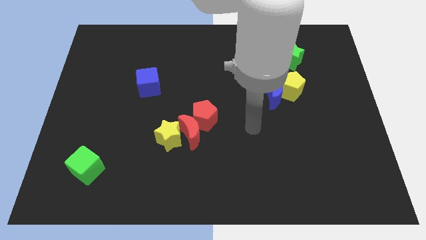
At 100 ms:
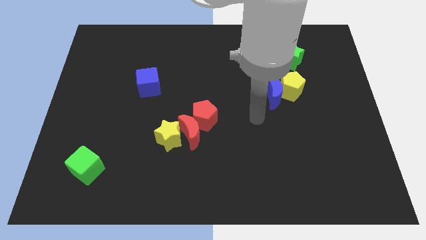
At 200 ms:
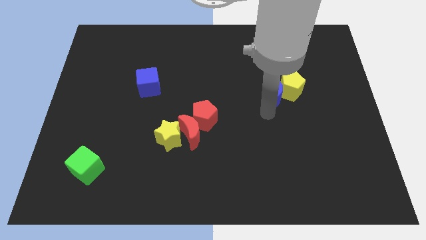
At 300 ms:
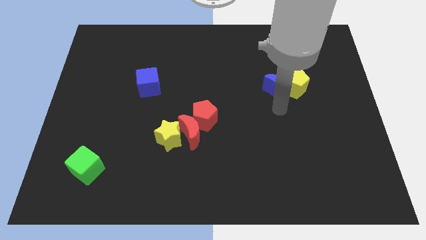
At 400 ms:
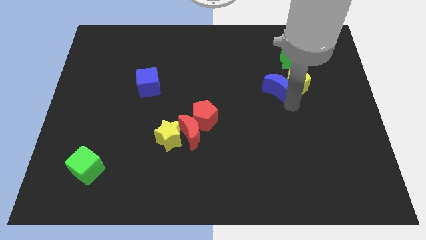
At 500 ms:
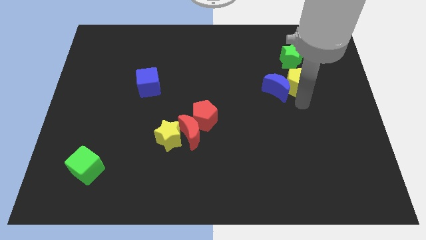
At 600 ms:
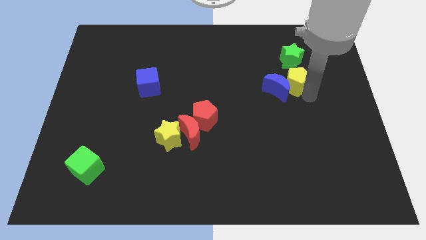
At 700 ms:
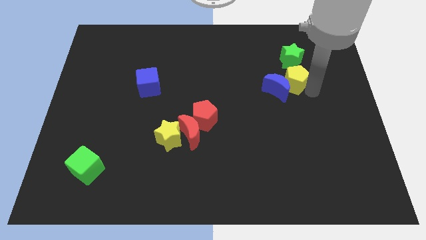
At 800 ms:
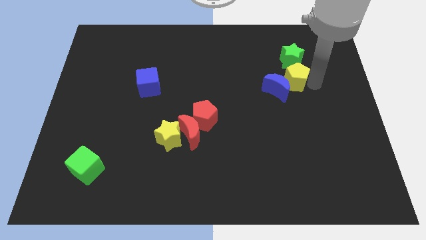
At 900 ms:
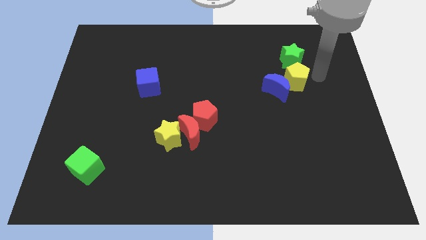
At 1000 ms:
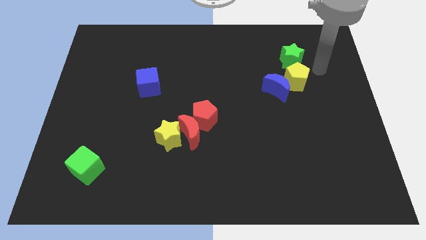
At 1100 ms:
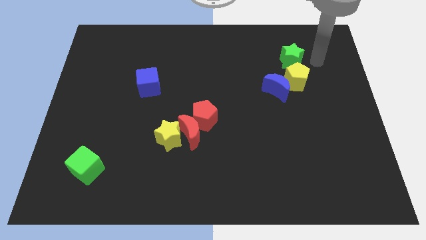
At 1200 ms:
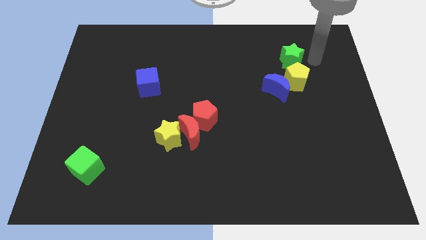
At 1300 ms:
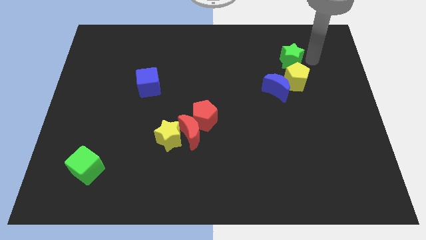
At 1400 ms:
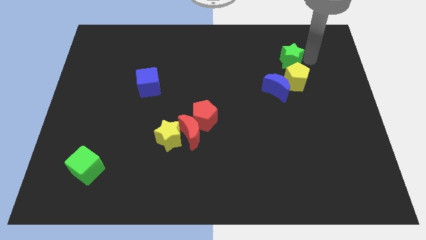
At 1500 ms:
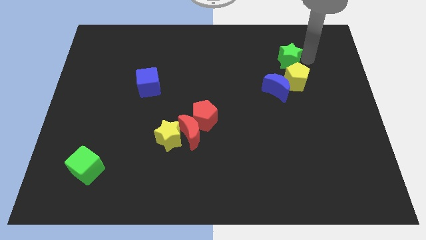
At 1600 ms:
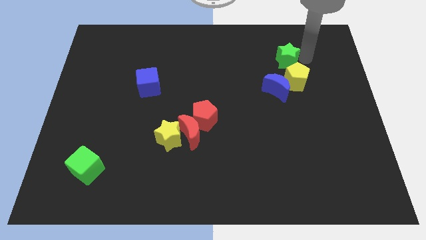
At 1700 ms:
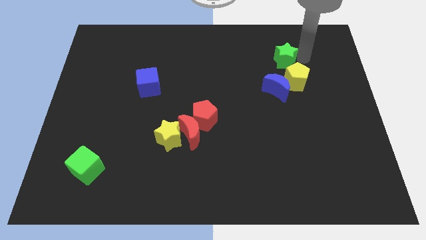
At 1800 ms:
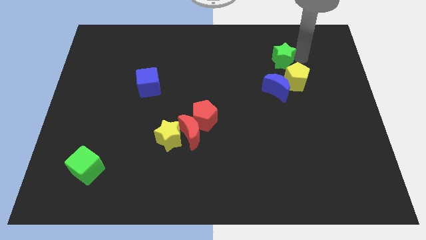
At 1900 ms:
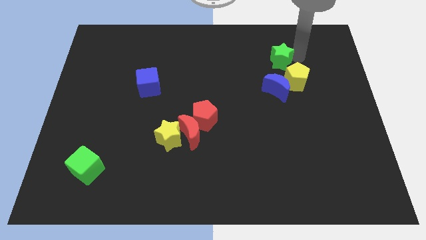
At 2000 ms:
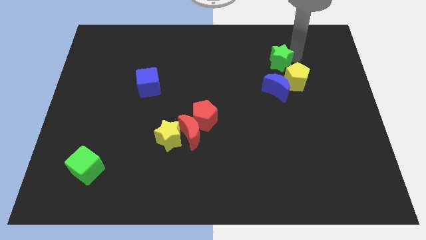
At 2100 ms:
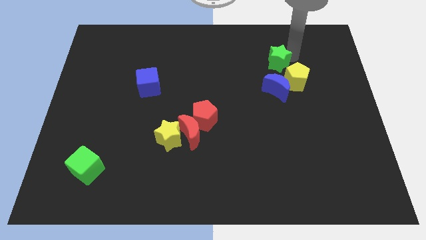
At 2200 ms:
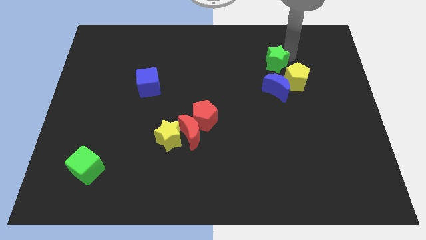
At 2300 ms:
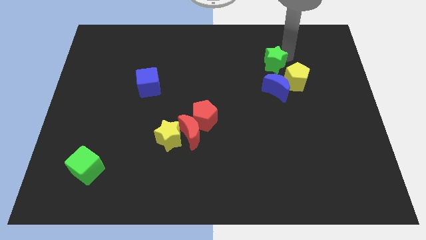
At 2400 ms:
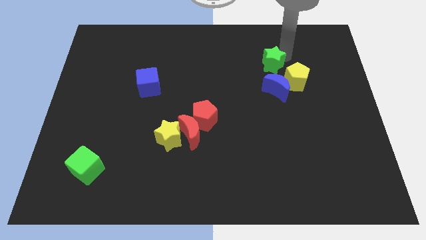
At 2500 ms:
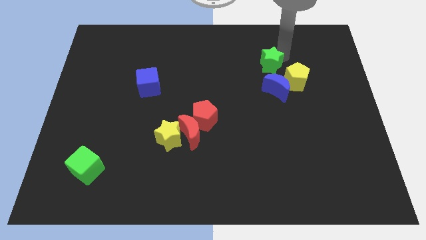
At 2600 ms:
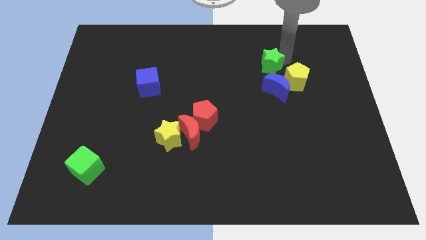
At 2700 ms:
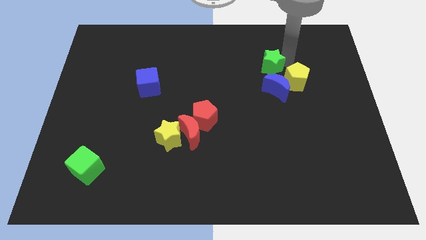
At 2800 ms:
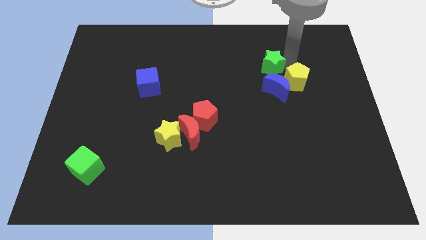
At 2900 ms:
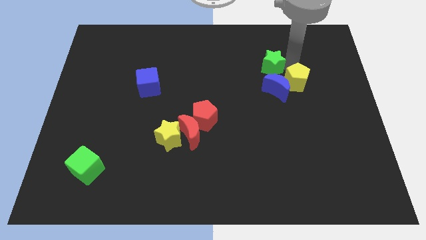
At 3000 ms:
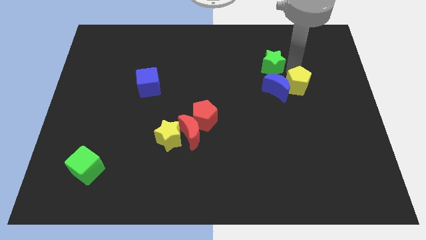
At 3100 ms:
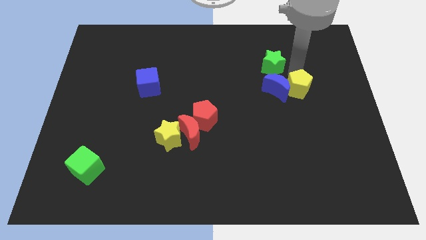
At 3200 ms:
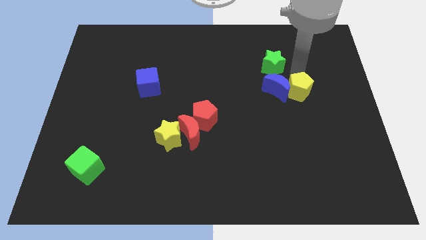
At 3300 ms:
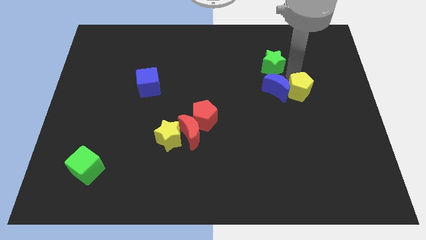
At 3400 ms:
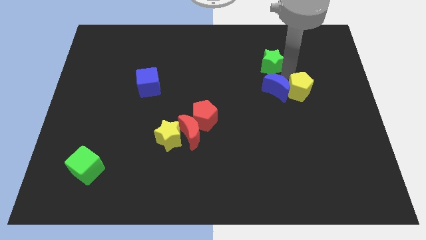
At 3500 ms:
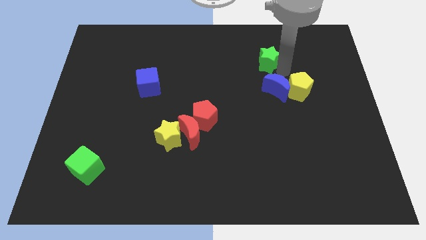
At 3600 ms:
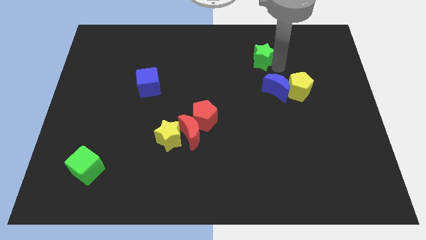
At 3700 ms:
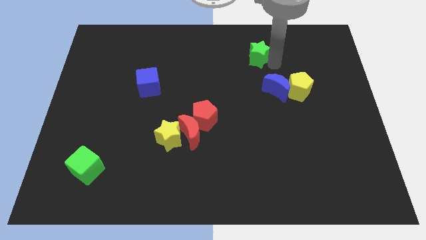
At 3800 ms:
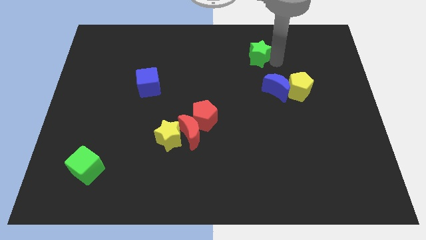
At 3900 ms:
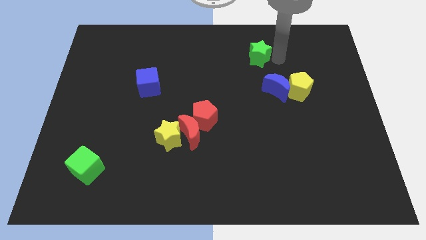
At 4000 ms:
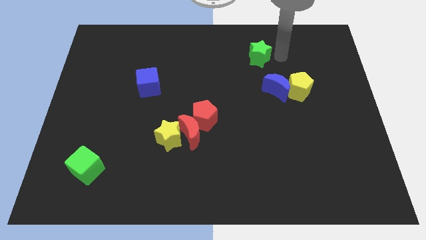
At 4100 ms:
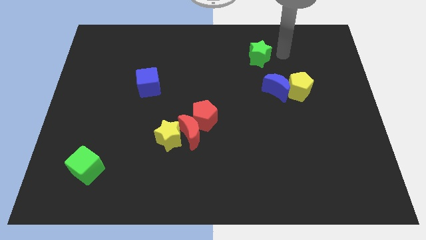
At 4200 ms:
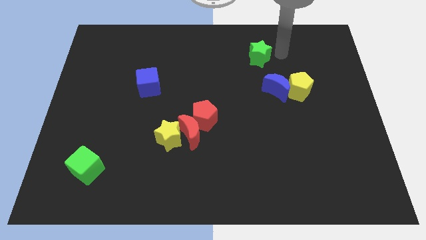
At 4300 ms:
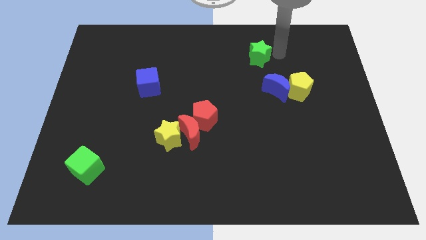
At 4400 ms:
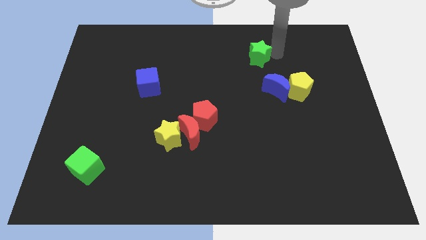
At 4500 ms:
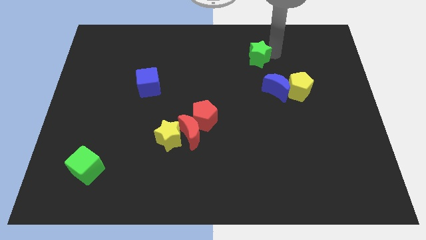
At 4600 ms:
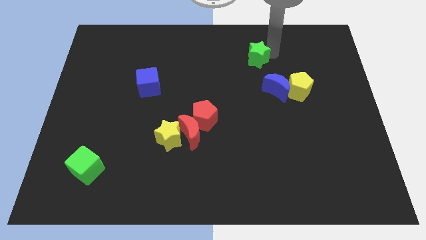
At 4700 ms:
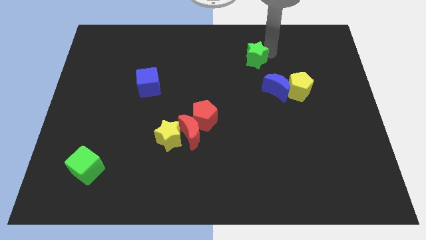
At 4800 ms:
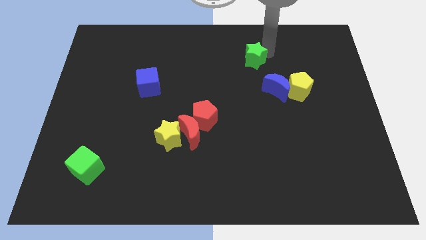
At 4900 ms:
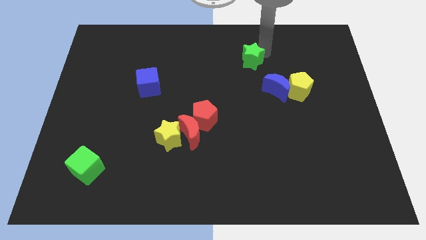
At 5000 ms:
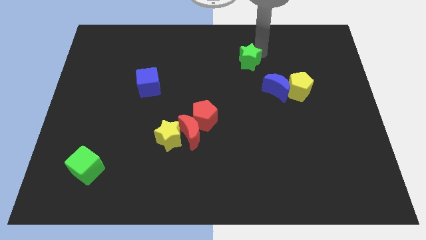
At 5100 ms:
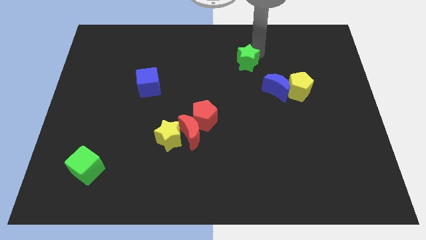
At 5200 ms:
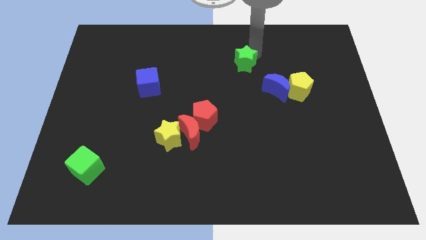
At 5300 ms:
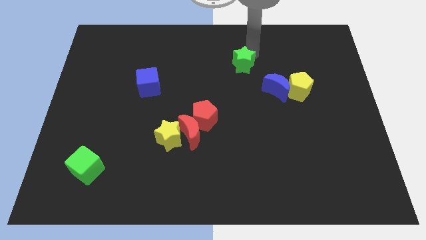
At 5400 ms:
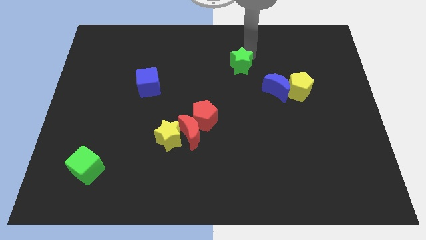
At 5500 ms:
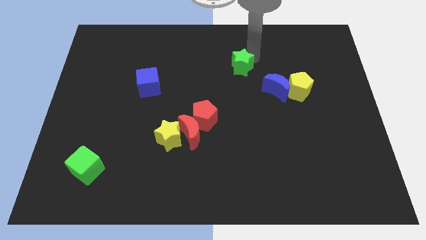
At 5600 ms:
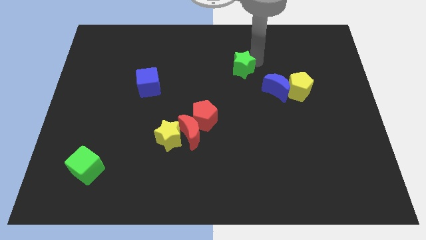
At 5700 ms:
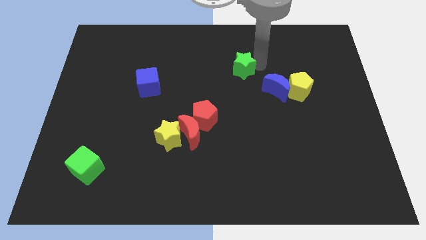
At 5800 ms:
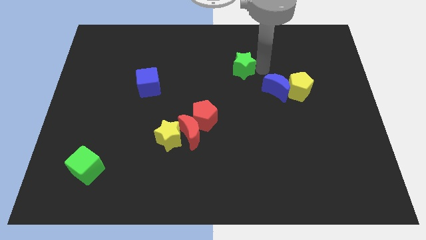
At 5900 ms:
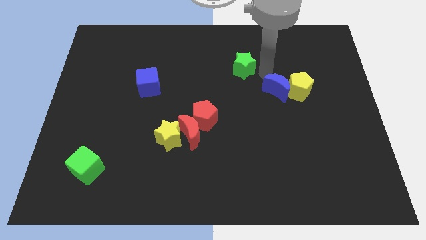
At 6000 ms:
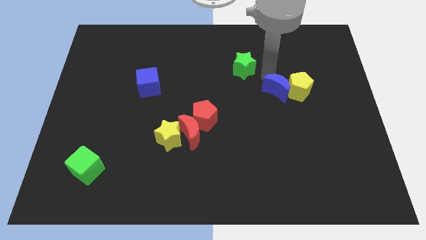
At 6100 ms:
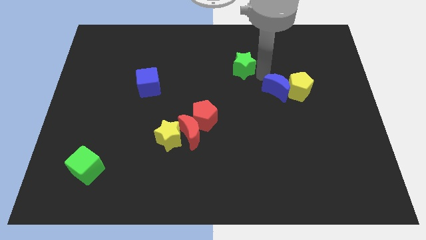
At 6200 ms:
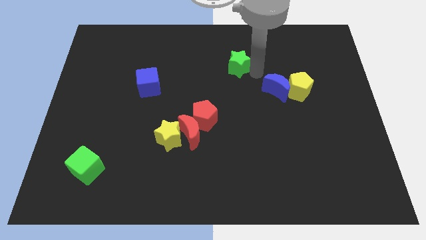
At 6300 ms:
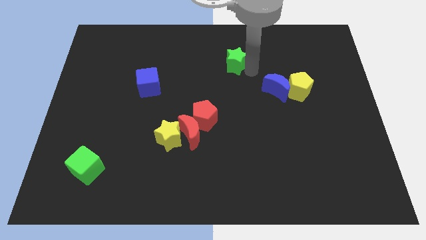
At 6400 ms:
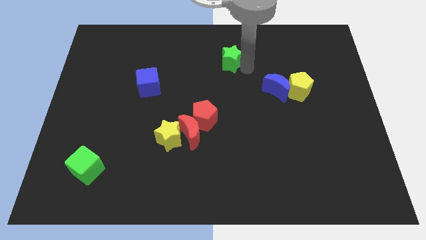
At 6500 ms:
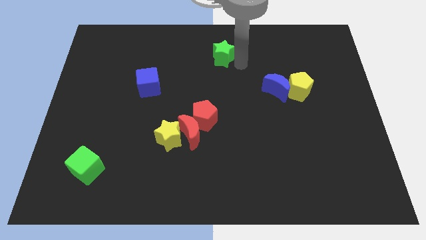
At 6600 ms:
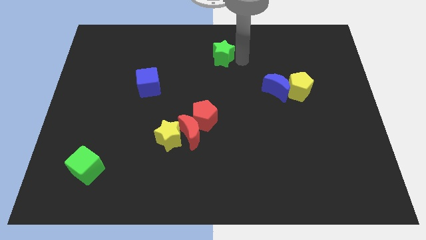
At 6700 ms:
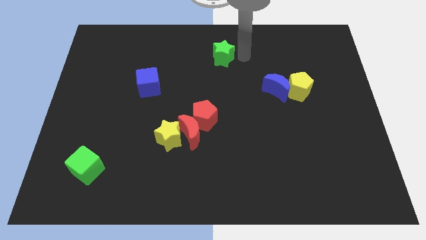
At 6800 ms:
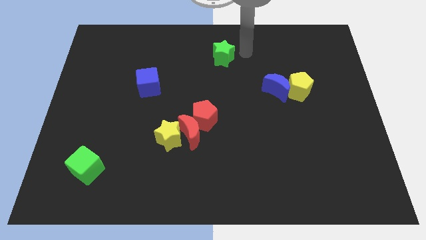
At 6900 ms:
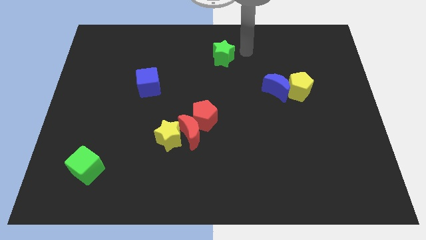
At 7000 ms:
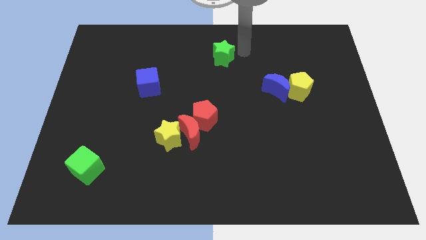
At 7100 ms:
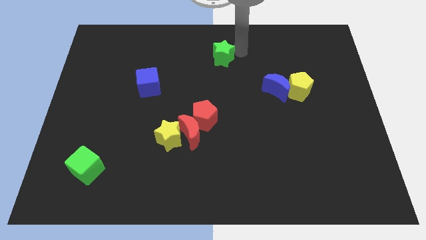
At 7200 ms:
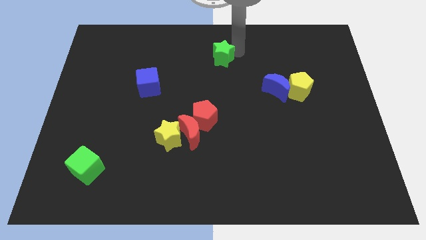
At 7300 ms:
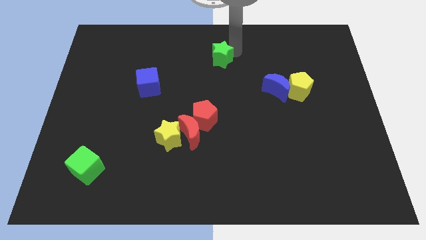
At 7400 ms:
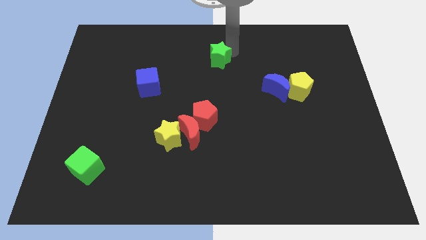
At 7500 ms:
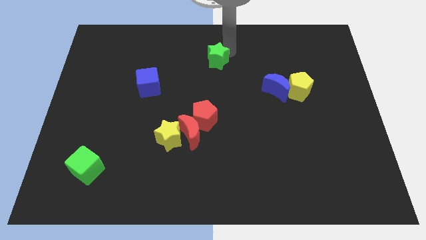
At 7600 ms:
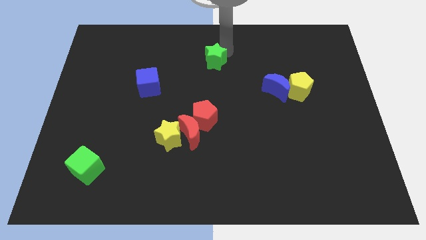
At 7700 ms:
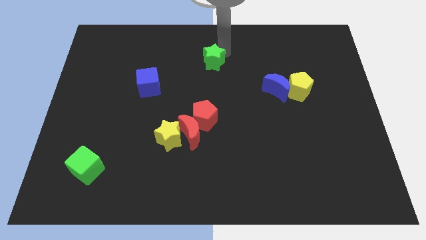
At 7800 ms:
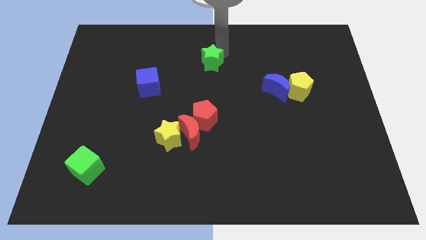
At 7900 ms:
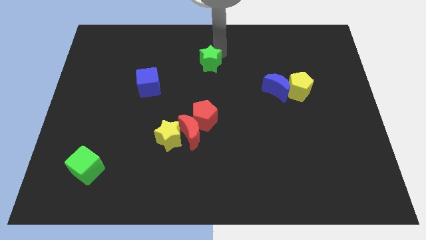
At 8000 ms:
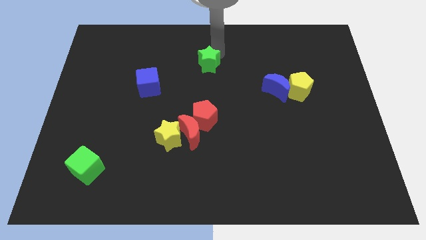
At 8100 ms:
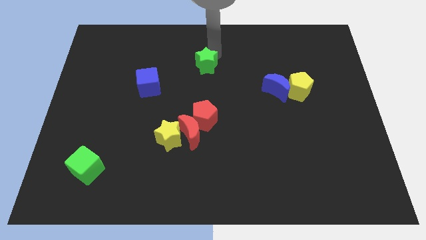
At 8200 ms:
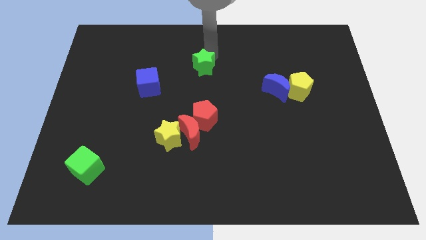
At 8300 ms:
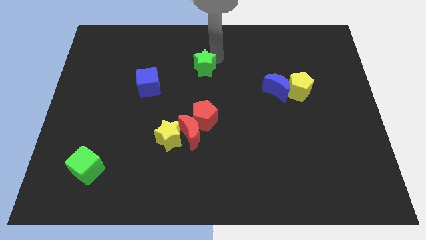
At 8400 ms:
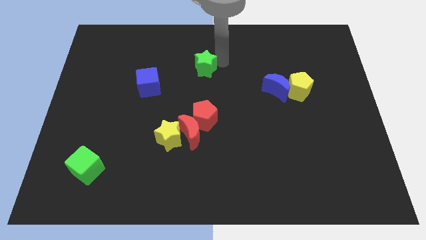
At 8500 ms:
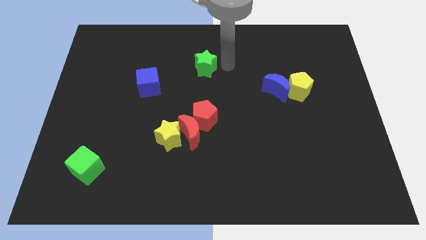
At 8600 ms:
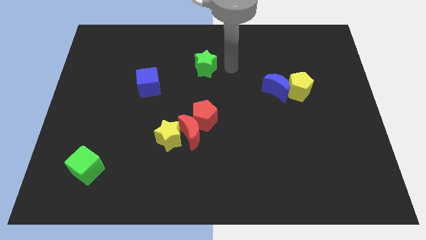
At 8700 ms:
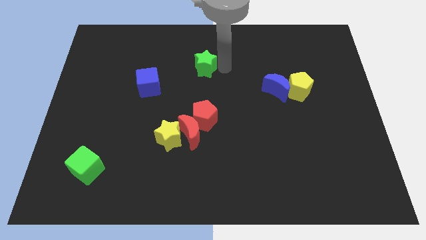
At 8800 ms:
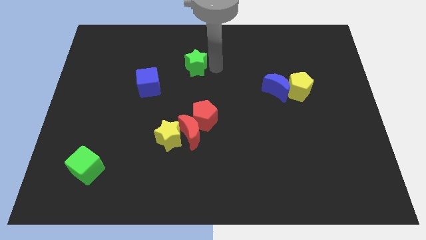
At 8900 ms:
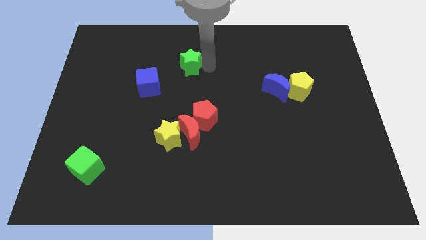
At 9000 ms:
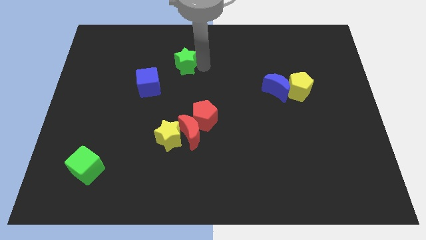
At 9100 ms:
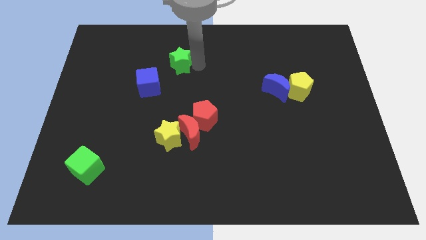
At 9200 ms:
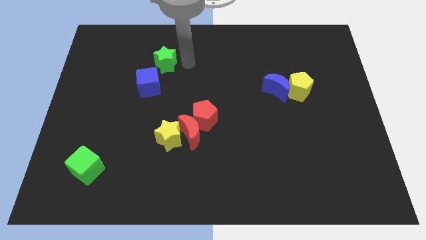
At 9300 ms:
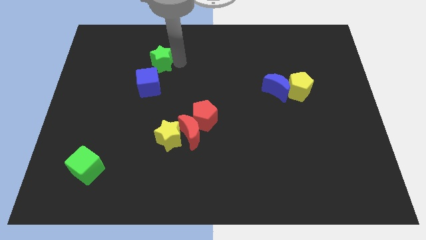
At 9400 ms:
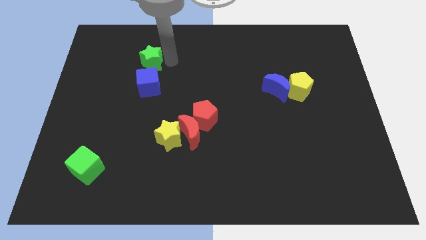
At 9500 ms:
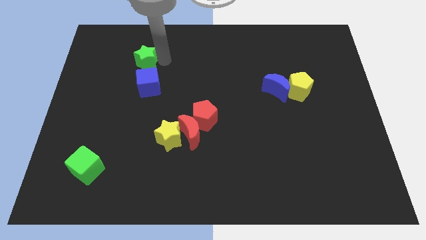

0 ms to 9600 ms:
push the green star diagonally up and to the left of the blue cube
